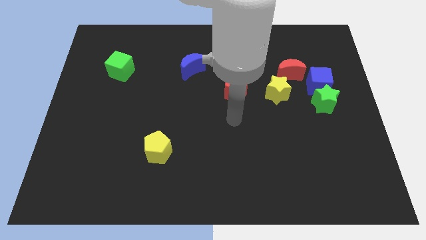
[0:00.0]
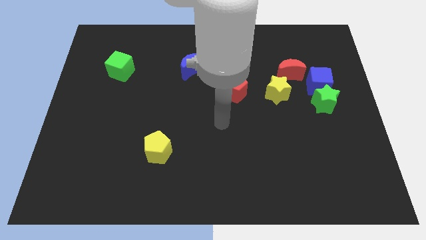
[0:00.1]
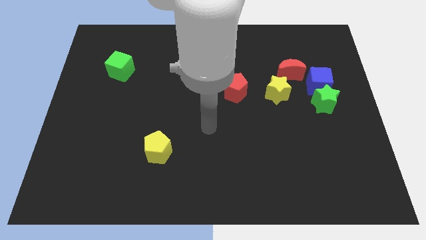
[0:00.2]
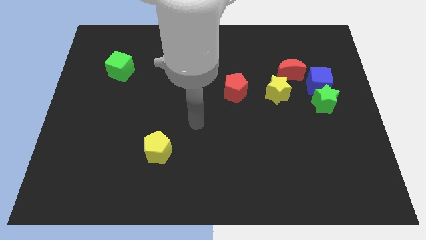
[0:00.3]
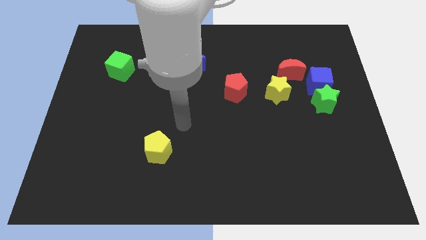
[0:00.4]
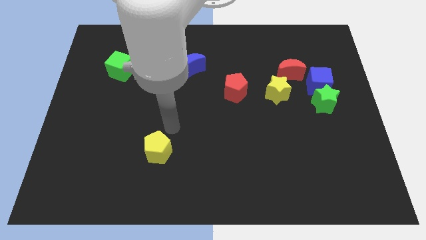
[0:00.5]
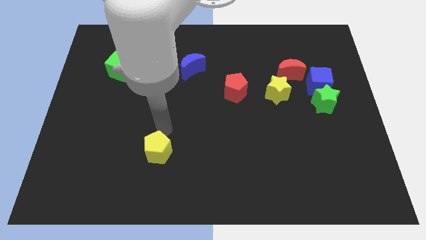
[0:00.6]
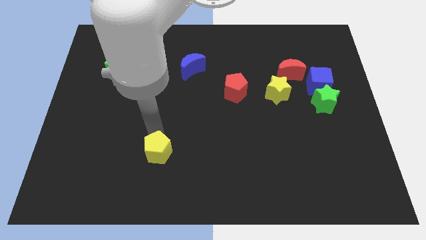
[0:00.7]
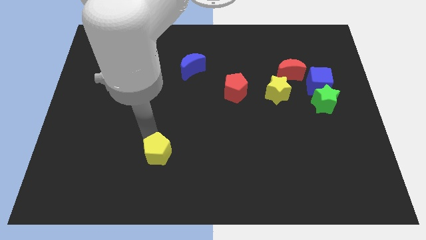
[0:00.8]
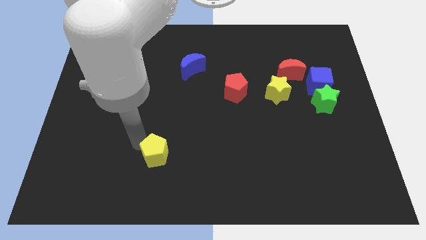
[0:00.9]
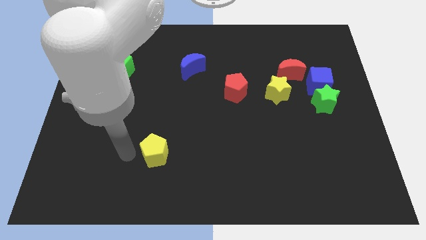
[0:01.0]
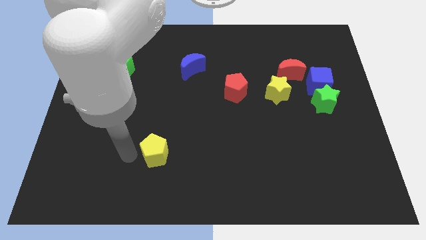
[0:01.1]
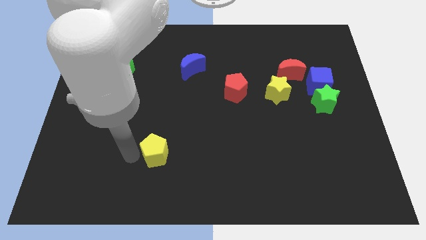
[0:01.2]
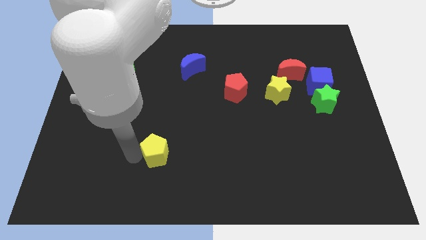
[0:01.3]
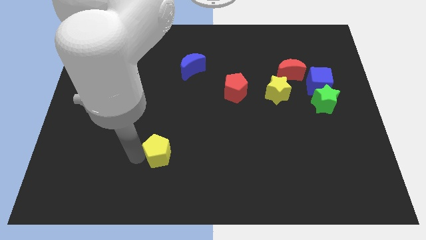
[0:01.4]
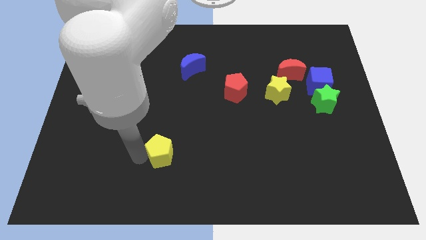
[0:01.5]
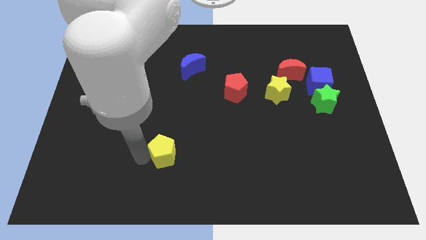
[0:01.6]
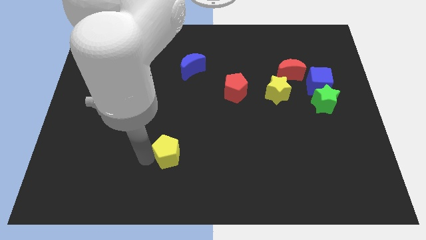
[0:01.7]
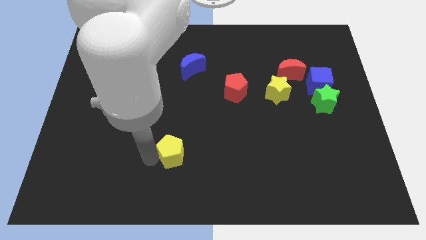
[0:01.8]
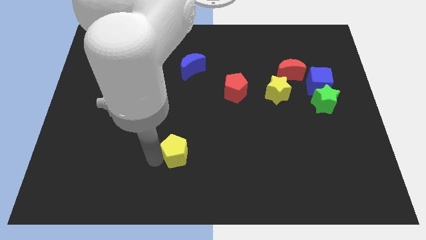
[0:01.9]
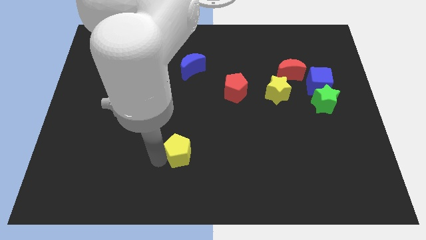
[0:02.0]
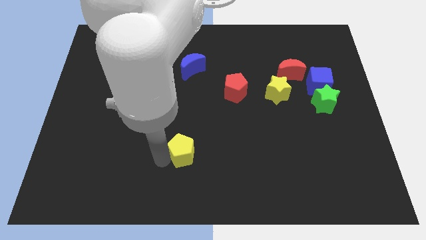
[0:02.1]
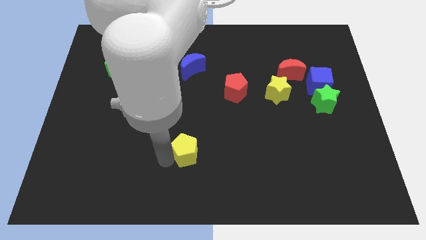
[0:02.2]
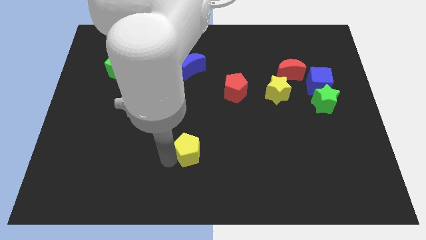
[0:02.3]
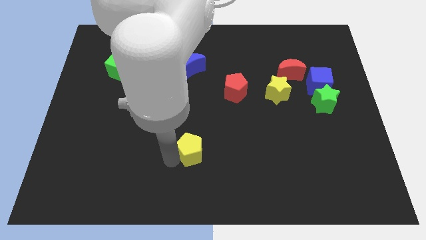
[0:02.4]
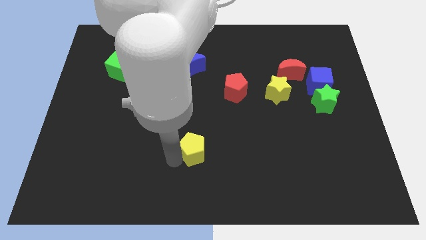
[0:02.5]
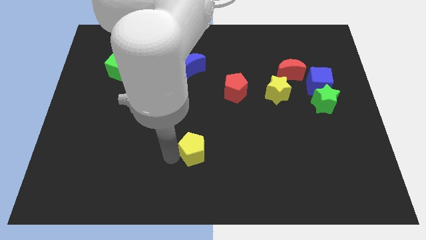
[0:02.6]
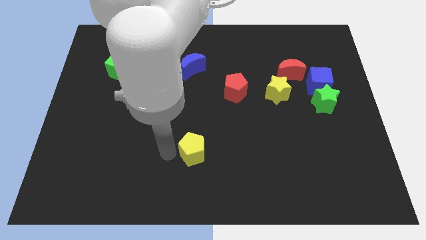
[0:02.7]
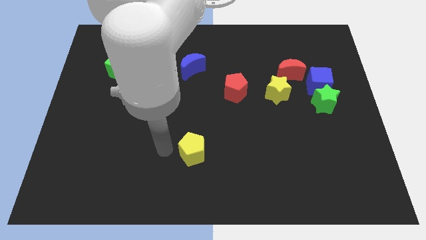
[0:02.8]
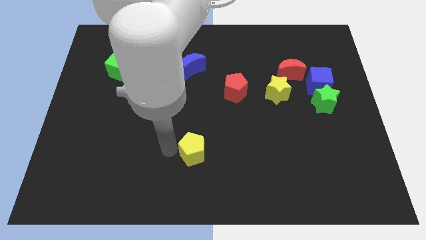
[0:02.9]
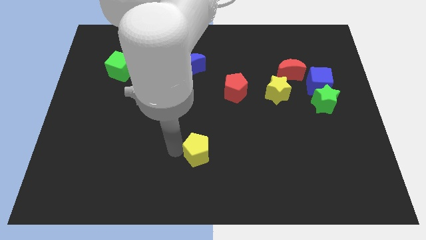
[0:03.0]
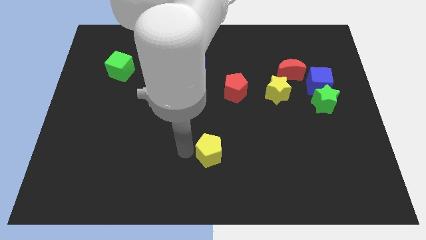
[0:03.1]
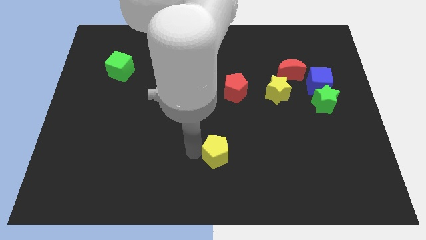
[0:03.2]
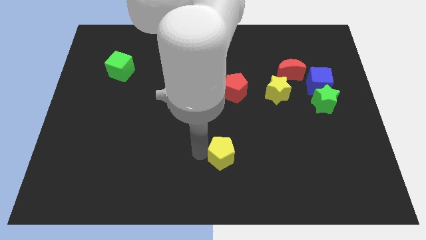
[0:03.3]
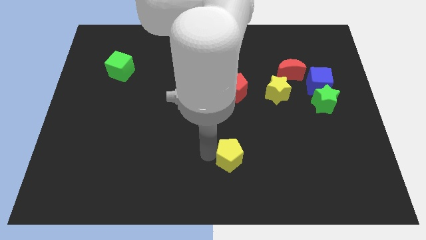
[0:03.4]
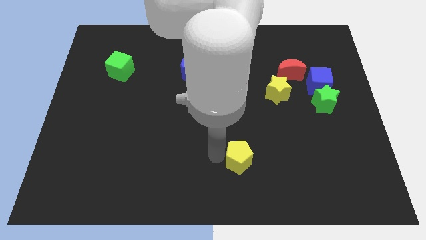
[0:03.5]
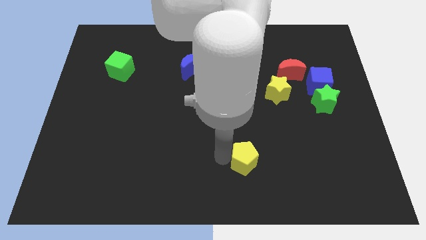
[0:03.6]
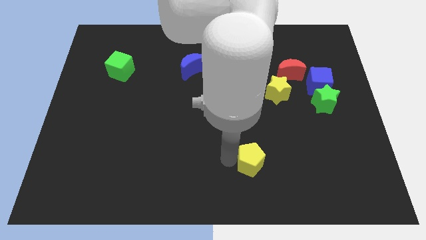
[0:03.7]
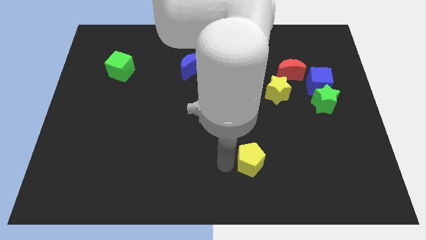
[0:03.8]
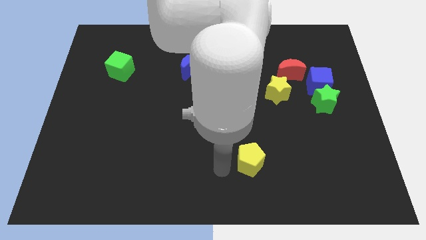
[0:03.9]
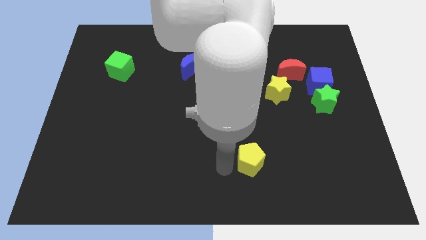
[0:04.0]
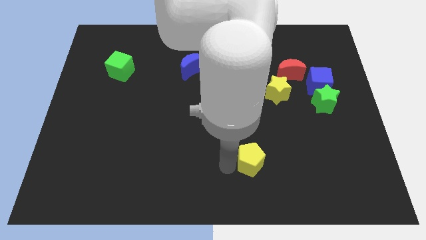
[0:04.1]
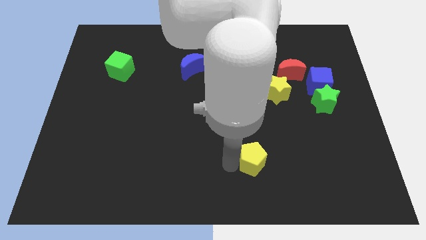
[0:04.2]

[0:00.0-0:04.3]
push the yellow pentagon right

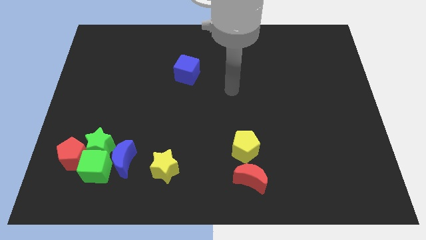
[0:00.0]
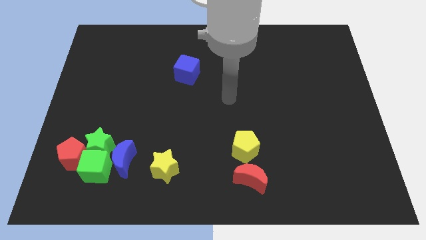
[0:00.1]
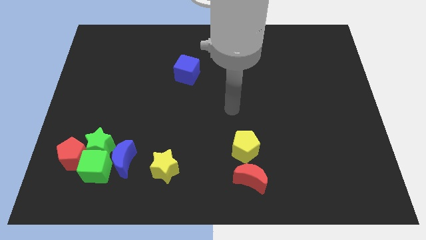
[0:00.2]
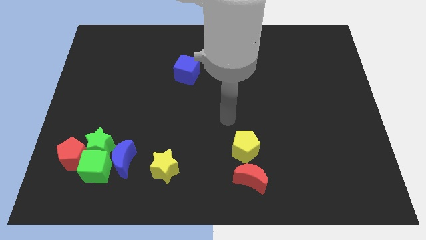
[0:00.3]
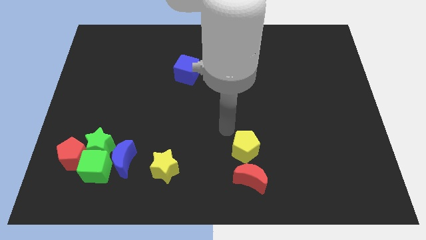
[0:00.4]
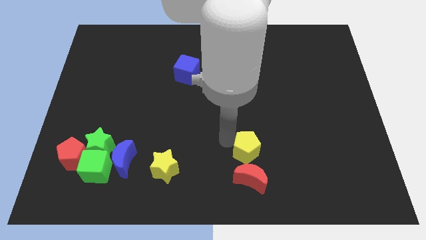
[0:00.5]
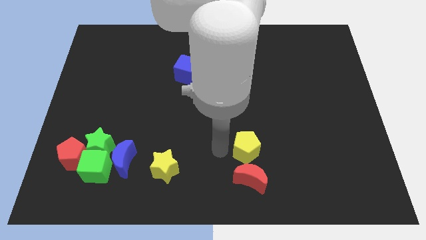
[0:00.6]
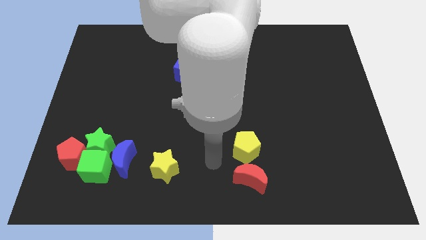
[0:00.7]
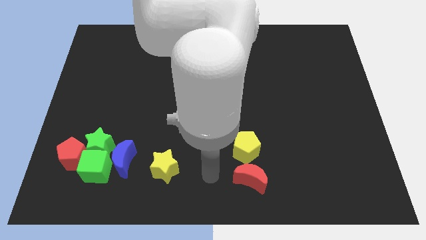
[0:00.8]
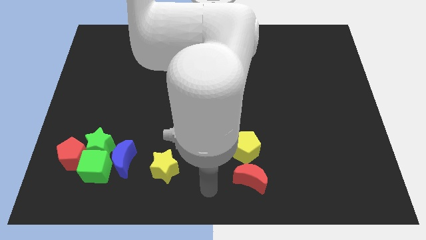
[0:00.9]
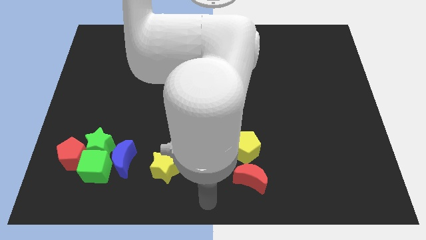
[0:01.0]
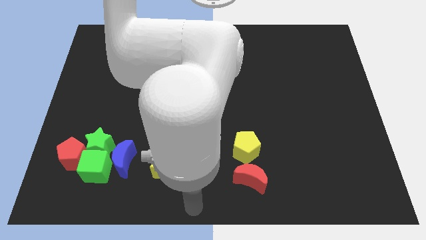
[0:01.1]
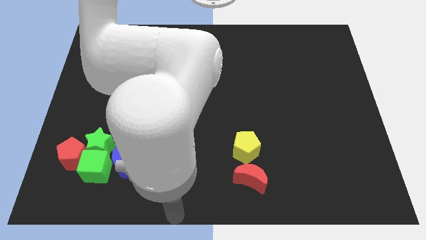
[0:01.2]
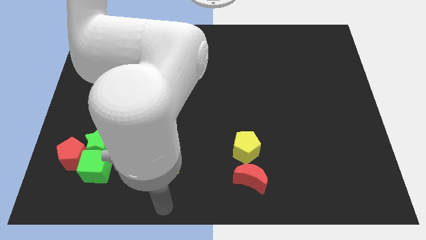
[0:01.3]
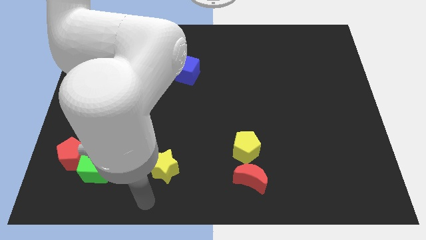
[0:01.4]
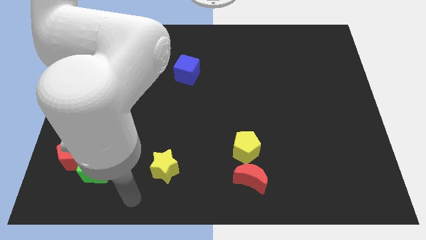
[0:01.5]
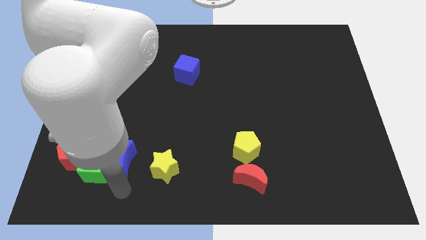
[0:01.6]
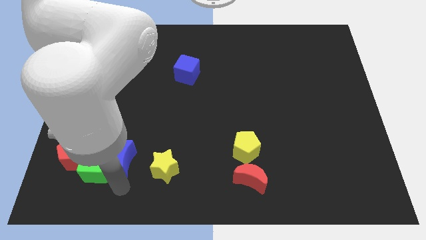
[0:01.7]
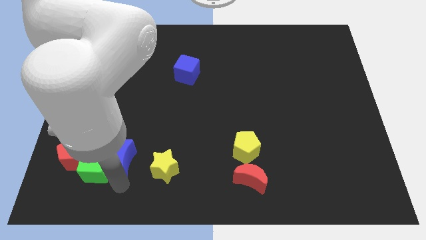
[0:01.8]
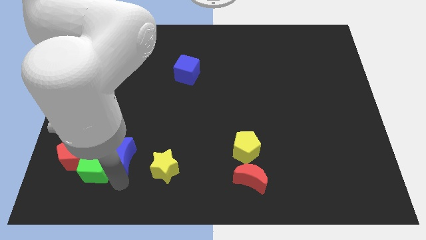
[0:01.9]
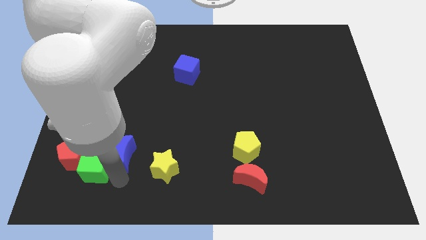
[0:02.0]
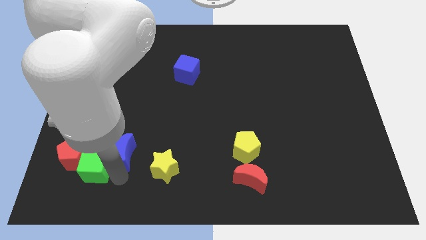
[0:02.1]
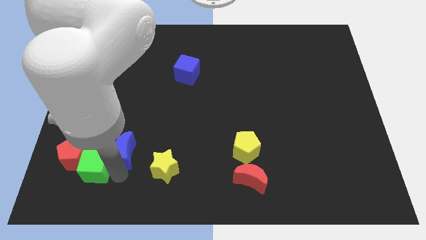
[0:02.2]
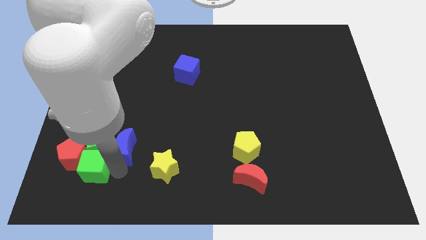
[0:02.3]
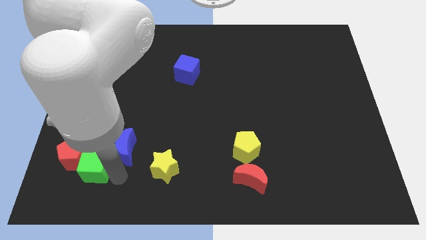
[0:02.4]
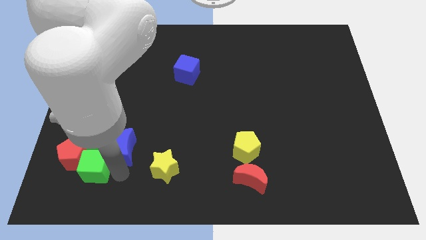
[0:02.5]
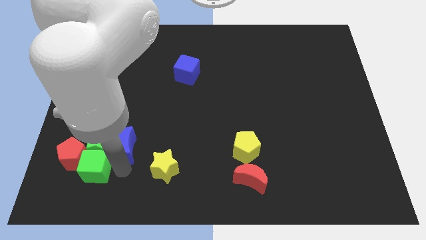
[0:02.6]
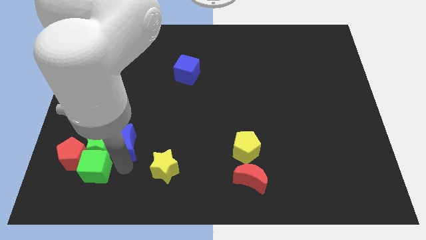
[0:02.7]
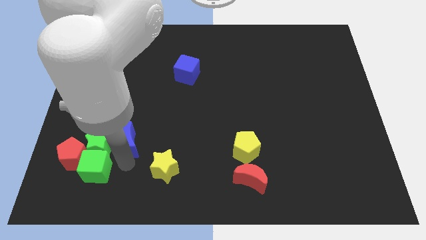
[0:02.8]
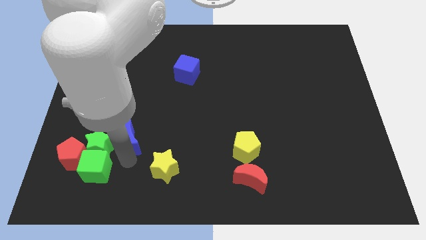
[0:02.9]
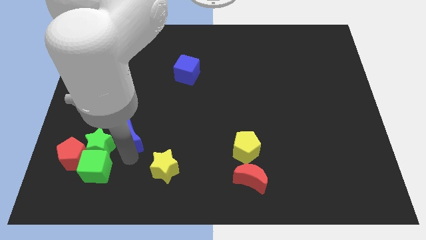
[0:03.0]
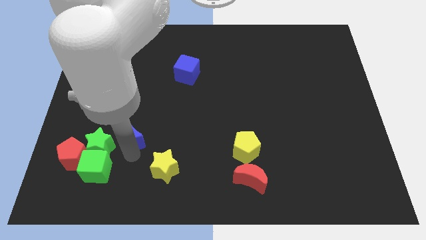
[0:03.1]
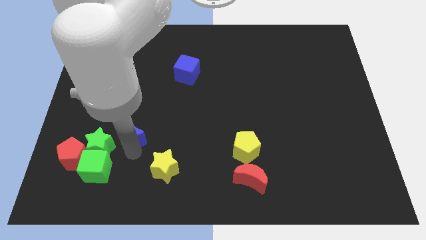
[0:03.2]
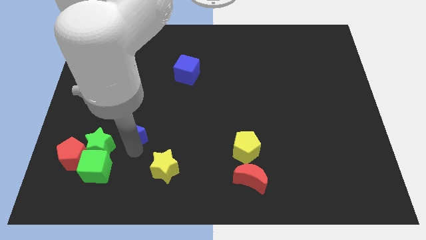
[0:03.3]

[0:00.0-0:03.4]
push the blue moon upwards somewhat
